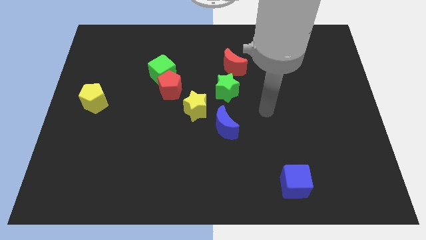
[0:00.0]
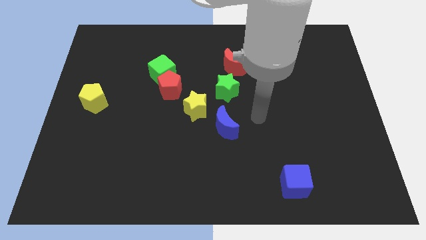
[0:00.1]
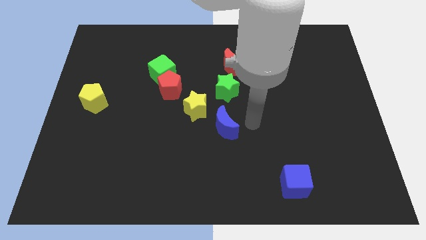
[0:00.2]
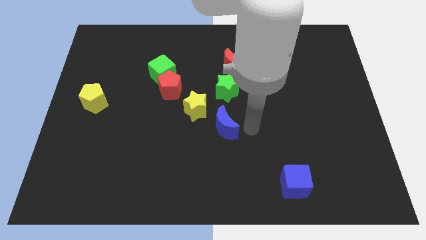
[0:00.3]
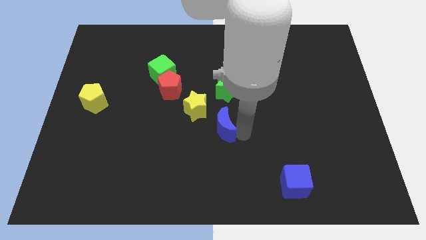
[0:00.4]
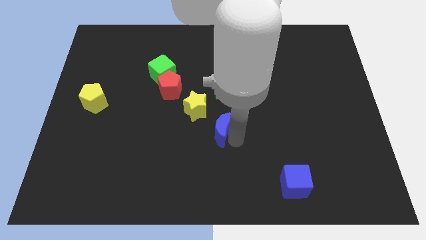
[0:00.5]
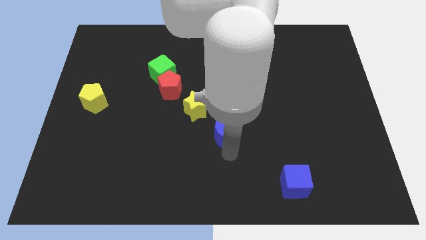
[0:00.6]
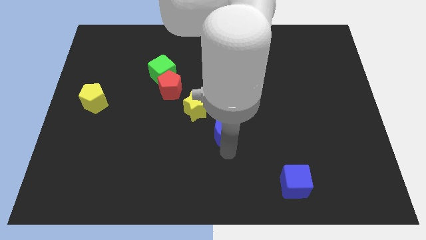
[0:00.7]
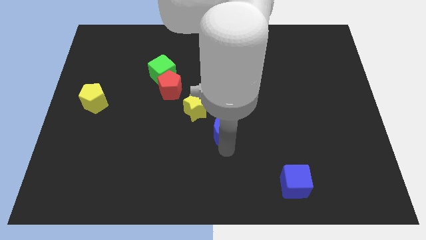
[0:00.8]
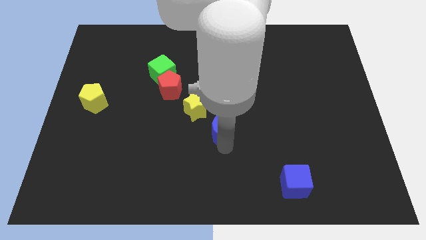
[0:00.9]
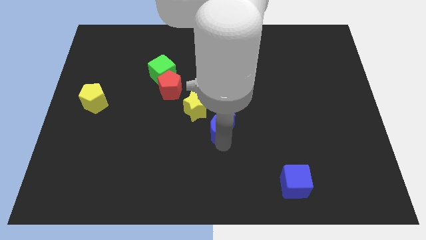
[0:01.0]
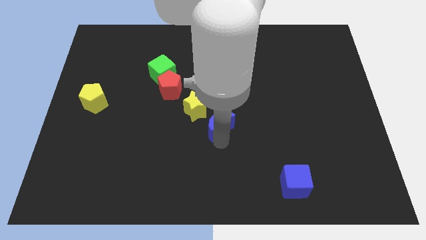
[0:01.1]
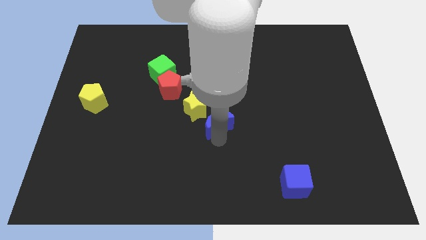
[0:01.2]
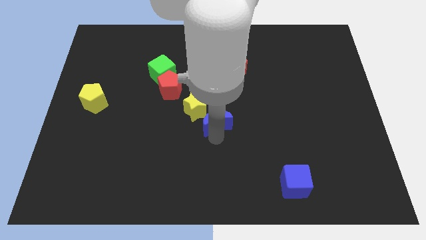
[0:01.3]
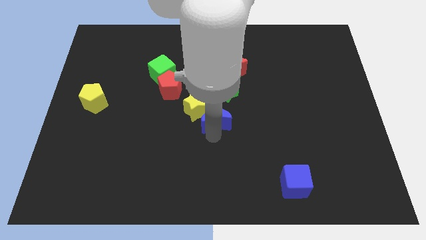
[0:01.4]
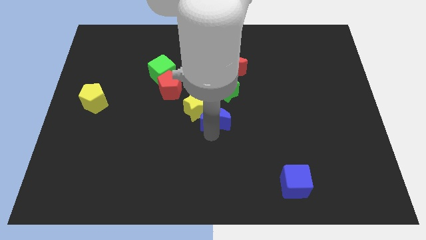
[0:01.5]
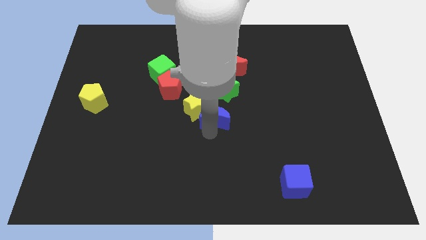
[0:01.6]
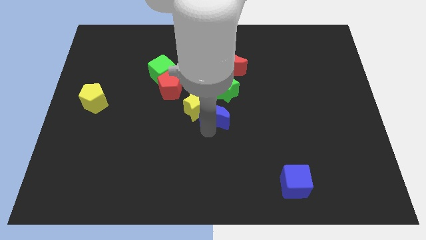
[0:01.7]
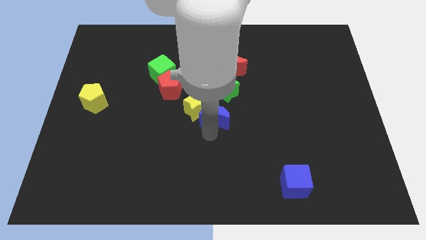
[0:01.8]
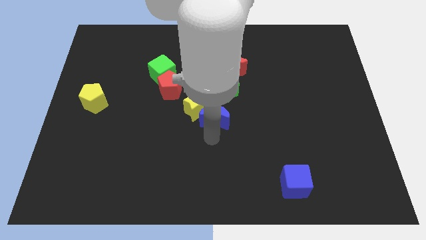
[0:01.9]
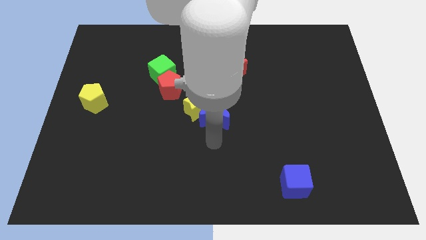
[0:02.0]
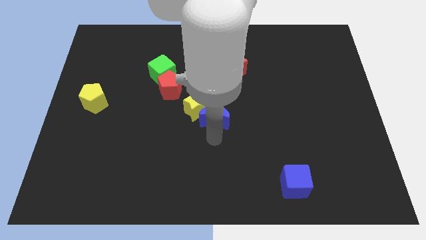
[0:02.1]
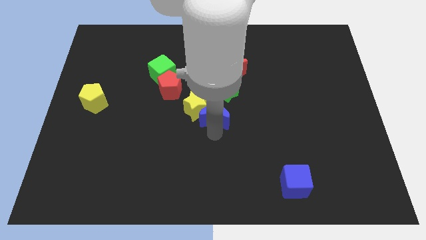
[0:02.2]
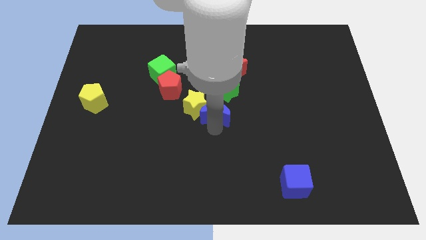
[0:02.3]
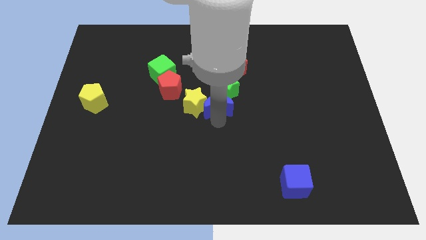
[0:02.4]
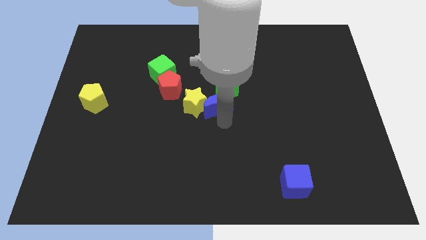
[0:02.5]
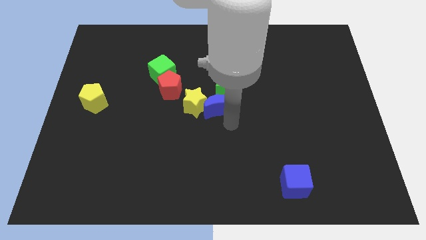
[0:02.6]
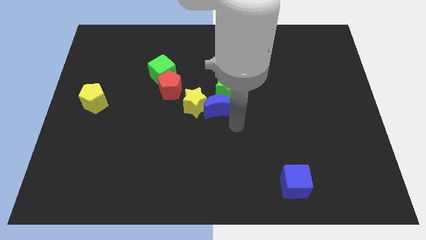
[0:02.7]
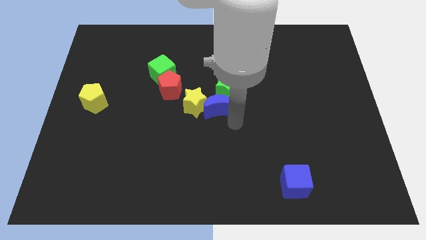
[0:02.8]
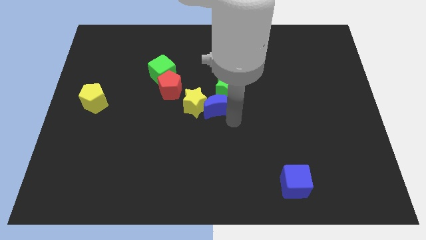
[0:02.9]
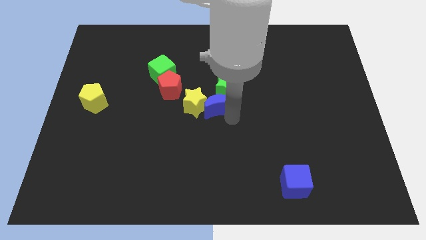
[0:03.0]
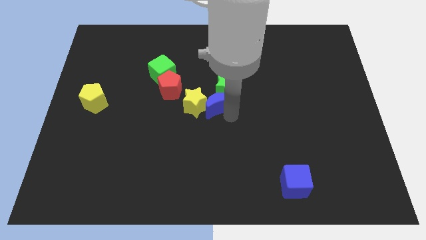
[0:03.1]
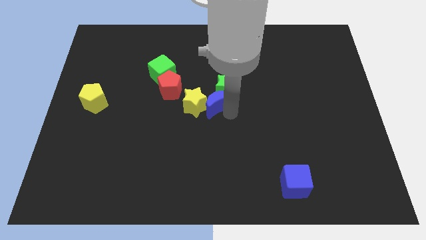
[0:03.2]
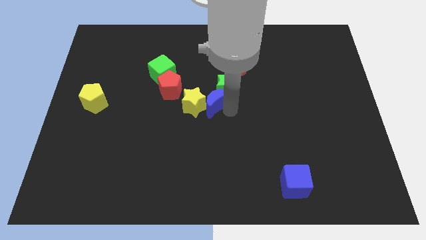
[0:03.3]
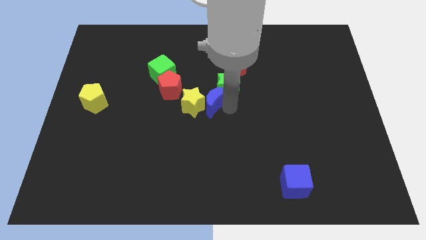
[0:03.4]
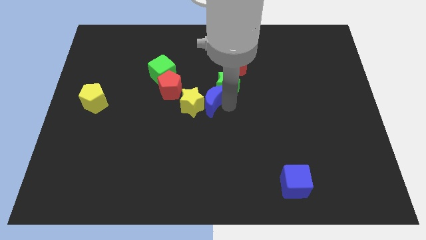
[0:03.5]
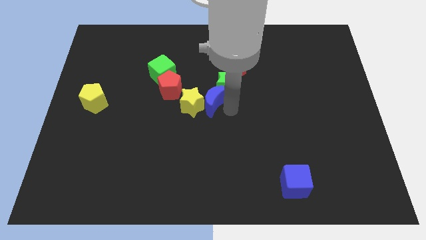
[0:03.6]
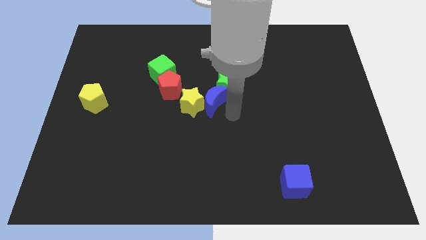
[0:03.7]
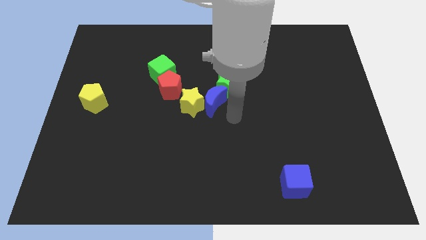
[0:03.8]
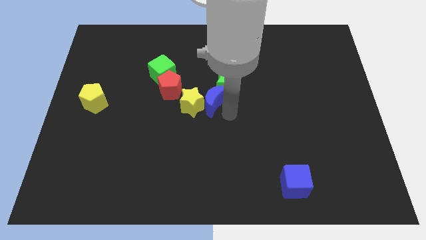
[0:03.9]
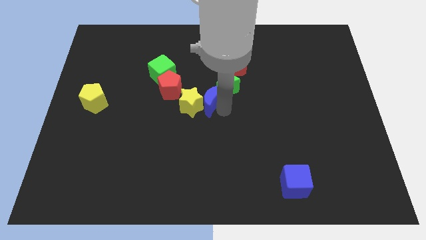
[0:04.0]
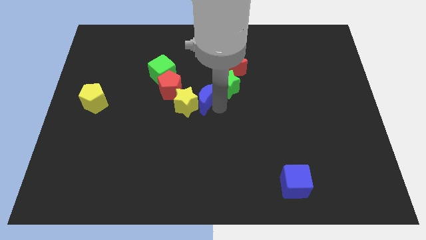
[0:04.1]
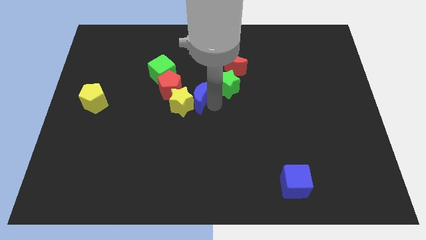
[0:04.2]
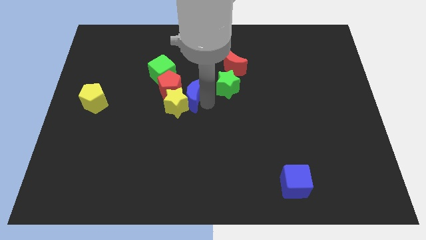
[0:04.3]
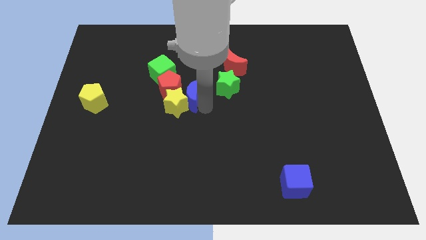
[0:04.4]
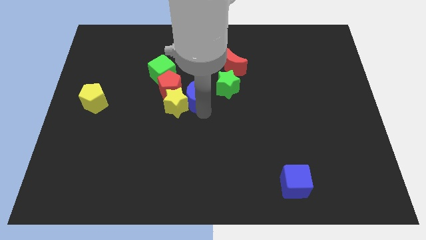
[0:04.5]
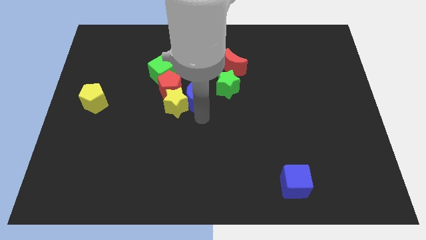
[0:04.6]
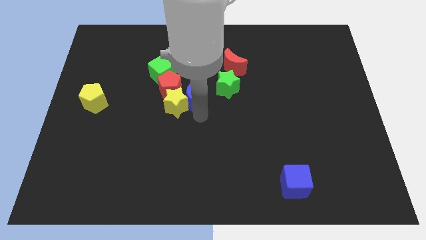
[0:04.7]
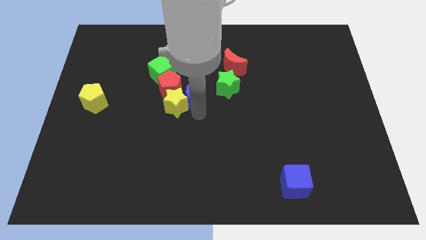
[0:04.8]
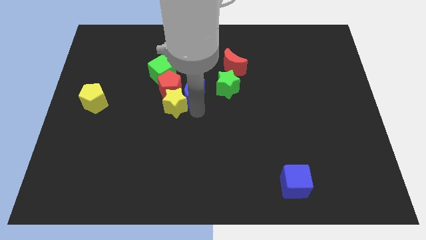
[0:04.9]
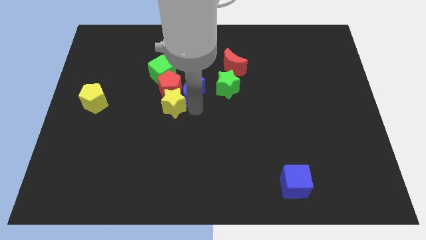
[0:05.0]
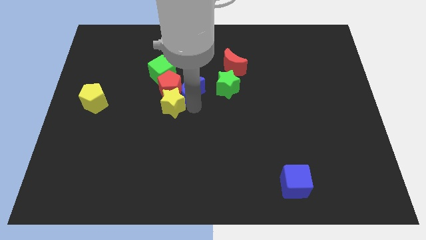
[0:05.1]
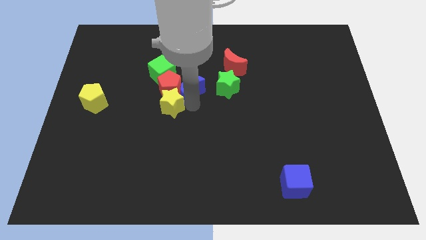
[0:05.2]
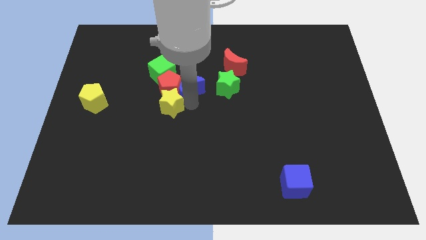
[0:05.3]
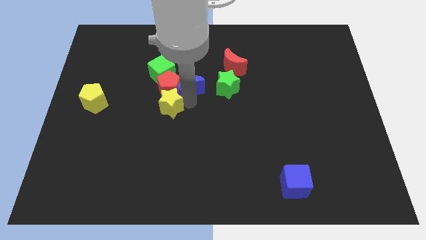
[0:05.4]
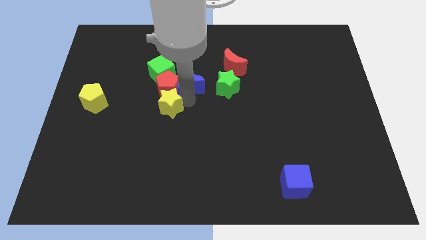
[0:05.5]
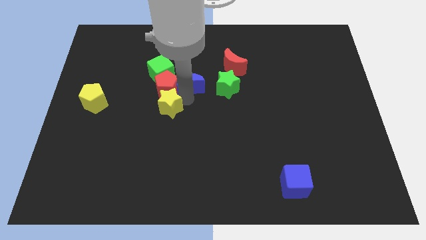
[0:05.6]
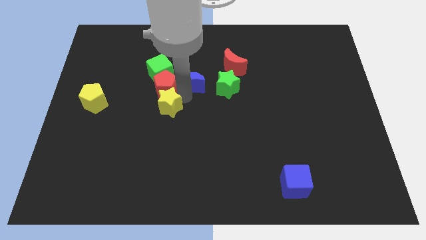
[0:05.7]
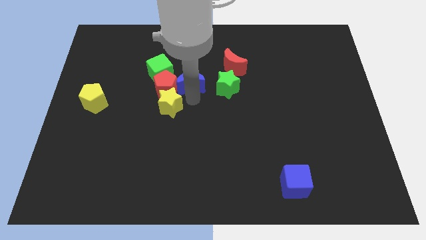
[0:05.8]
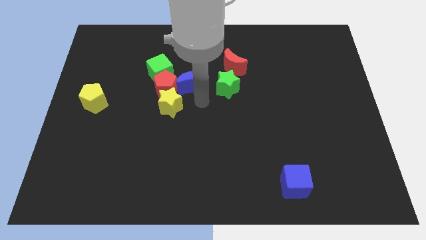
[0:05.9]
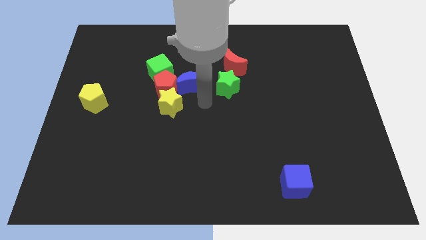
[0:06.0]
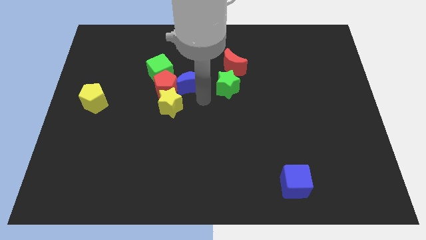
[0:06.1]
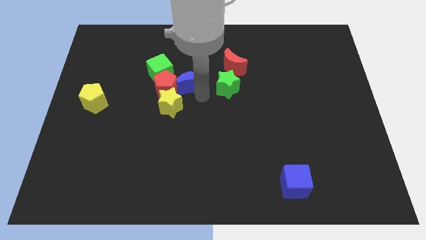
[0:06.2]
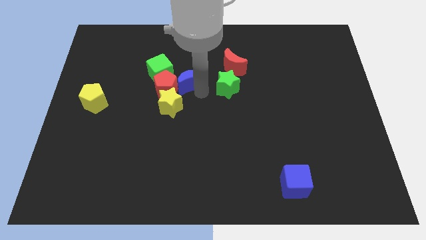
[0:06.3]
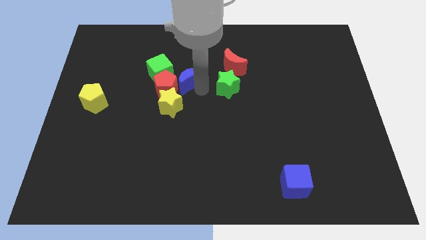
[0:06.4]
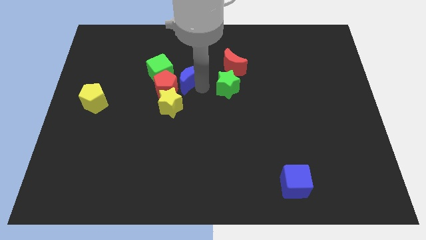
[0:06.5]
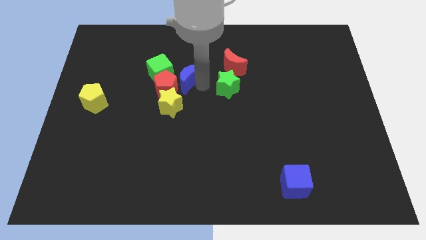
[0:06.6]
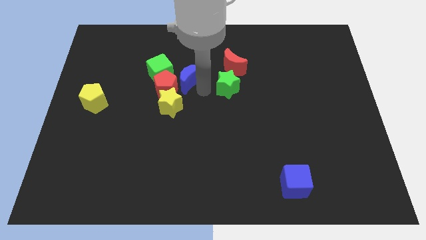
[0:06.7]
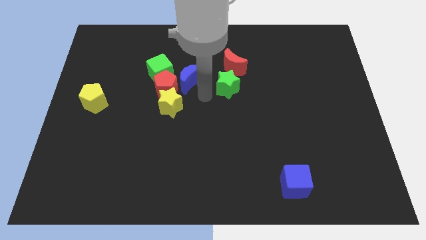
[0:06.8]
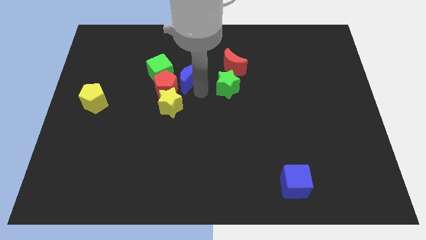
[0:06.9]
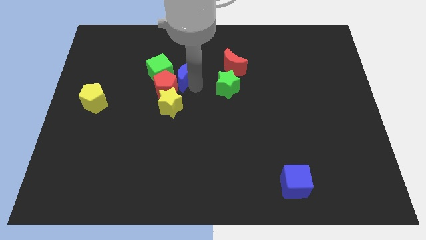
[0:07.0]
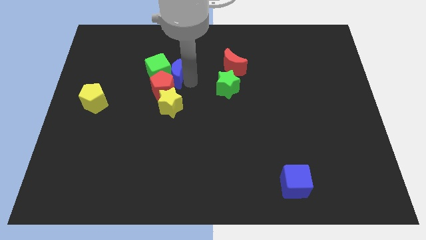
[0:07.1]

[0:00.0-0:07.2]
put the blue moon to the top of the red pentagon

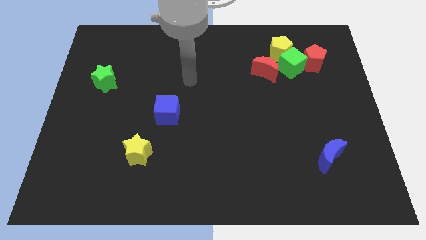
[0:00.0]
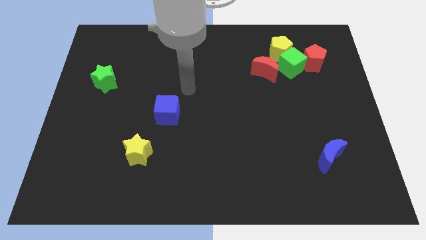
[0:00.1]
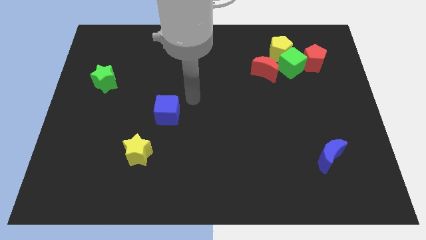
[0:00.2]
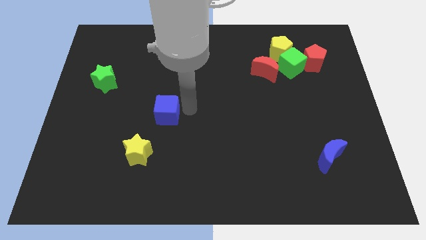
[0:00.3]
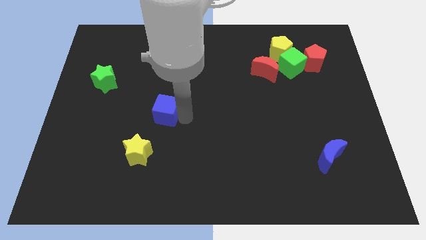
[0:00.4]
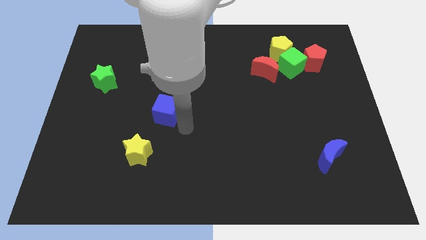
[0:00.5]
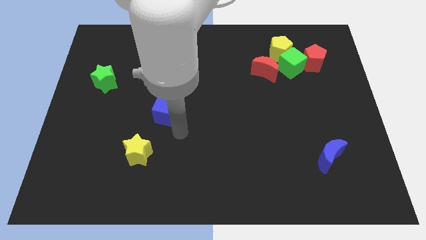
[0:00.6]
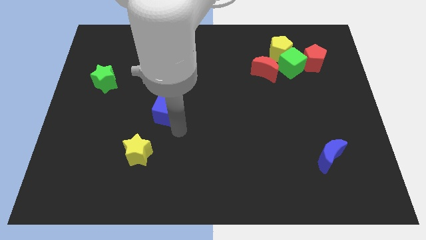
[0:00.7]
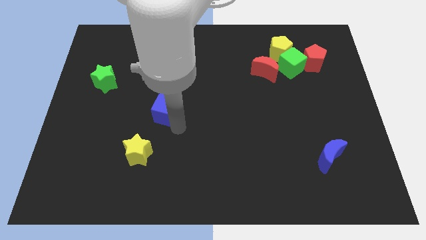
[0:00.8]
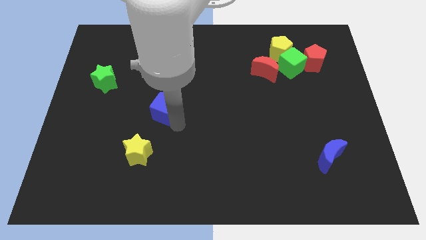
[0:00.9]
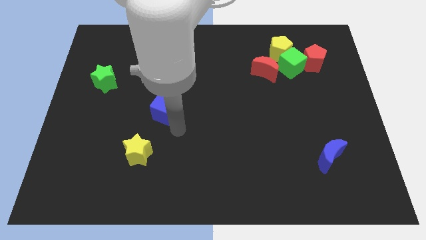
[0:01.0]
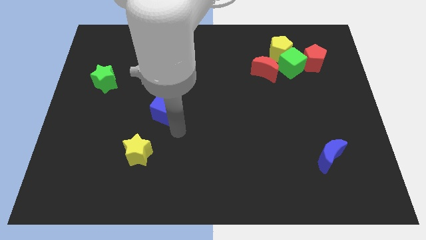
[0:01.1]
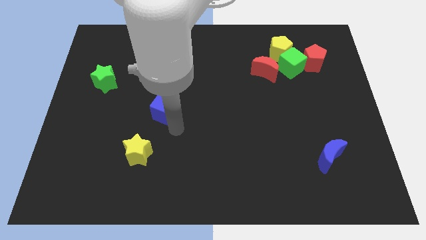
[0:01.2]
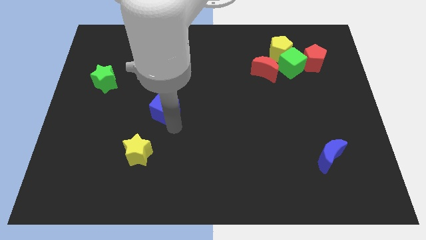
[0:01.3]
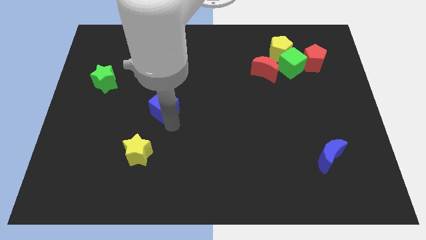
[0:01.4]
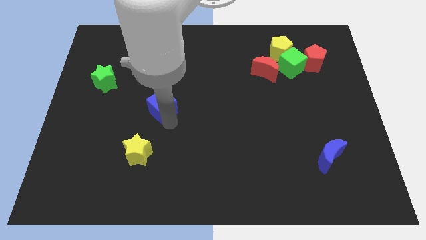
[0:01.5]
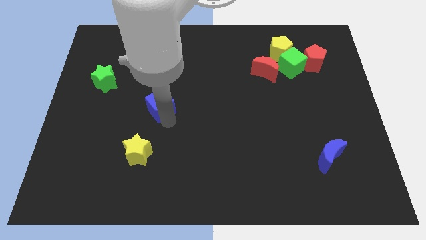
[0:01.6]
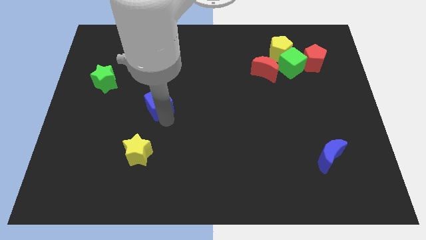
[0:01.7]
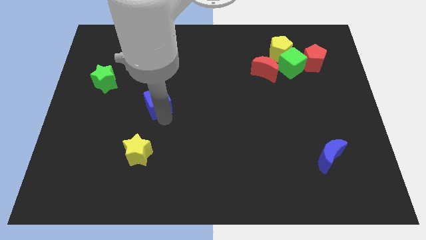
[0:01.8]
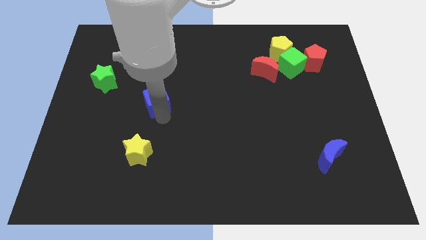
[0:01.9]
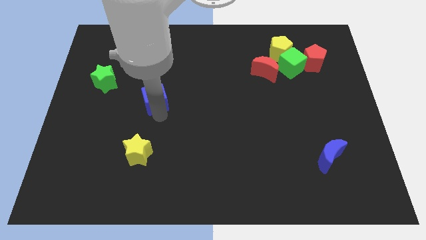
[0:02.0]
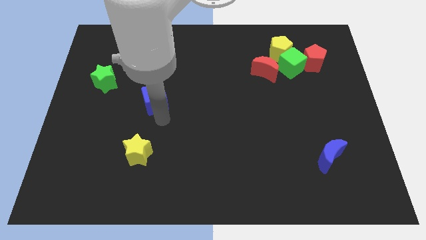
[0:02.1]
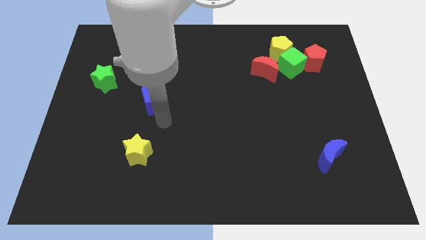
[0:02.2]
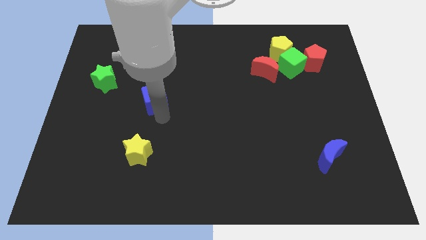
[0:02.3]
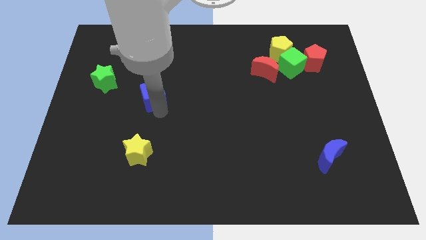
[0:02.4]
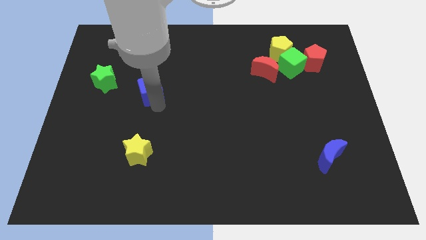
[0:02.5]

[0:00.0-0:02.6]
put the blue cube to the right side of the green star
